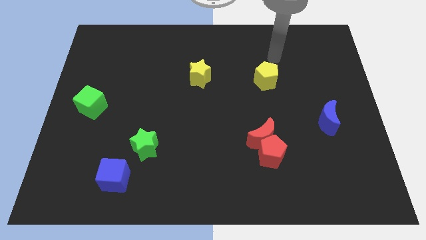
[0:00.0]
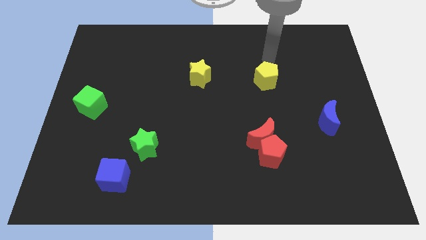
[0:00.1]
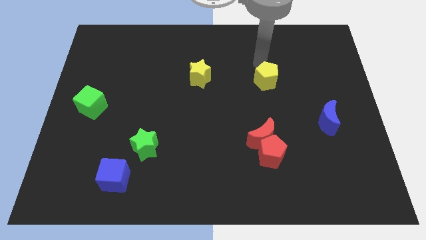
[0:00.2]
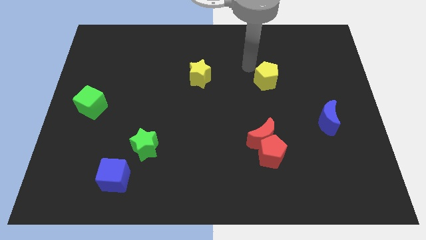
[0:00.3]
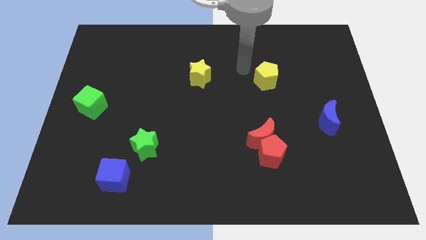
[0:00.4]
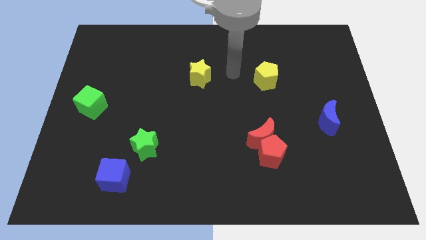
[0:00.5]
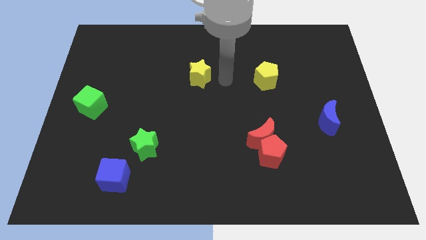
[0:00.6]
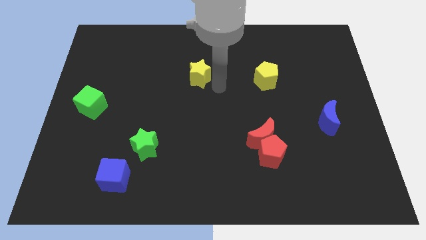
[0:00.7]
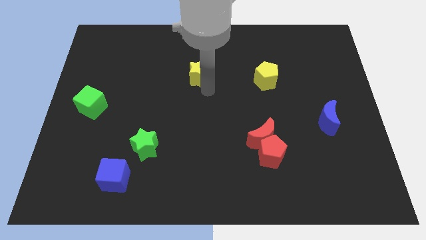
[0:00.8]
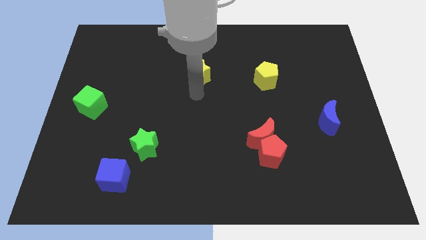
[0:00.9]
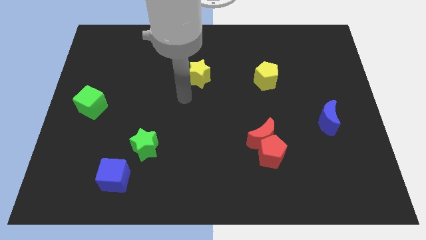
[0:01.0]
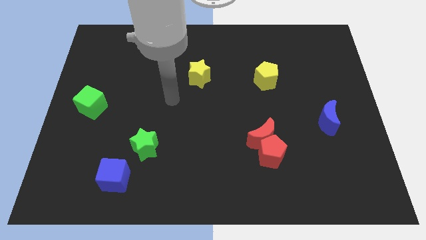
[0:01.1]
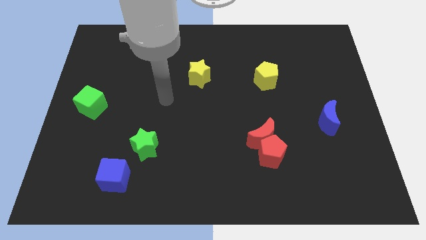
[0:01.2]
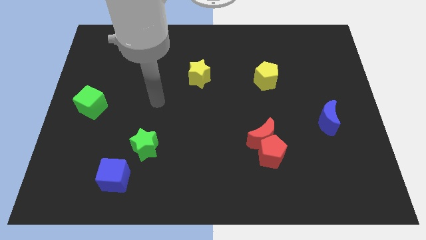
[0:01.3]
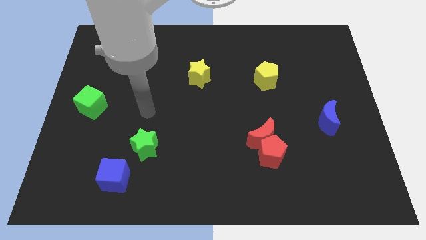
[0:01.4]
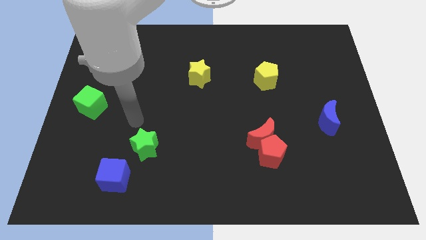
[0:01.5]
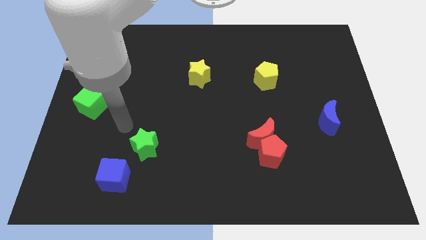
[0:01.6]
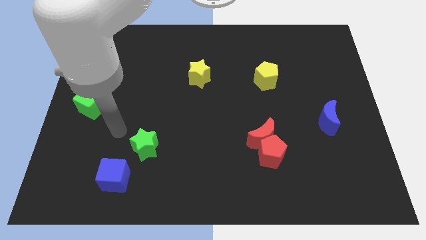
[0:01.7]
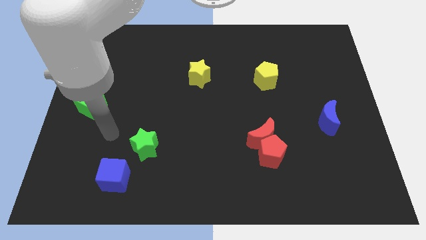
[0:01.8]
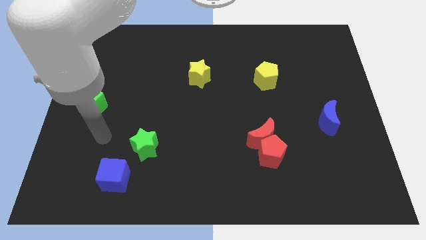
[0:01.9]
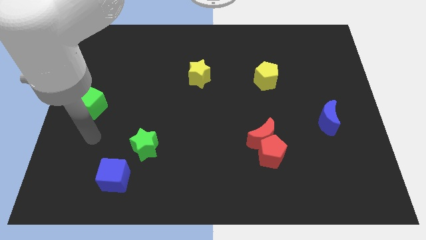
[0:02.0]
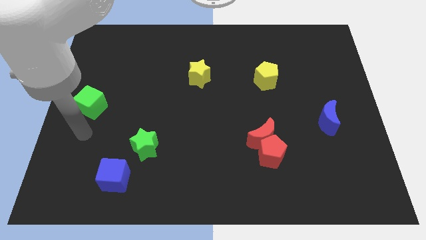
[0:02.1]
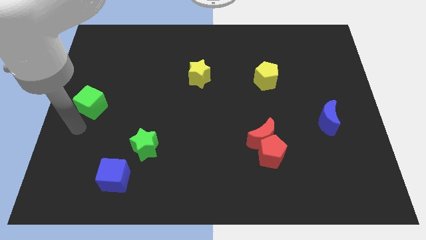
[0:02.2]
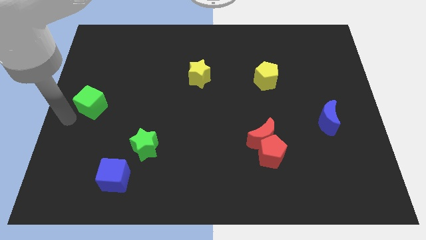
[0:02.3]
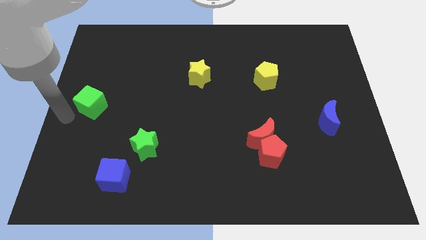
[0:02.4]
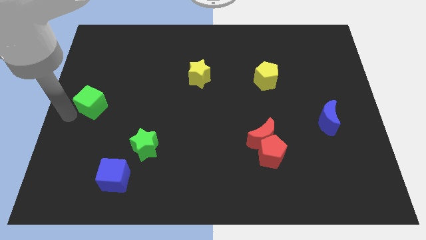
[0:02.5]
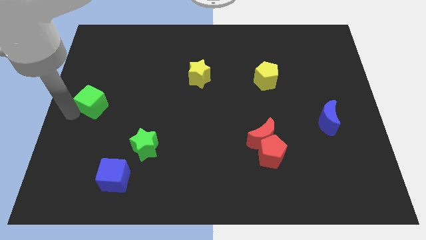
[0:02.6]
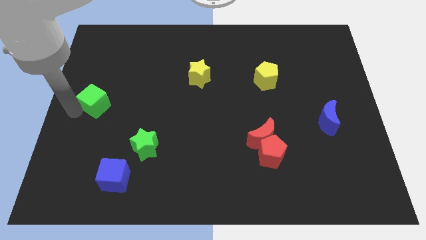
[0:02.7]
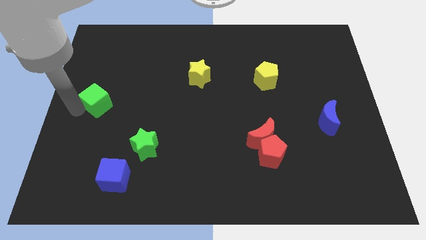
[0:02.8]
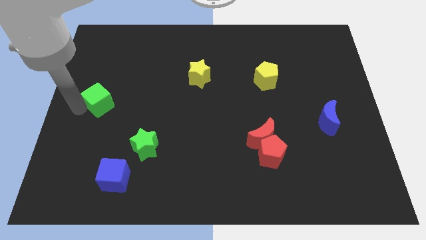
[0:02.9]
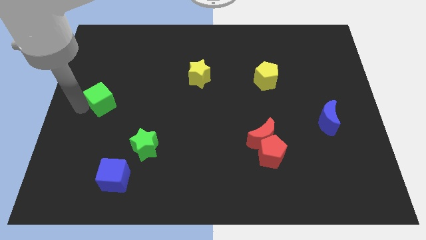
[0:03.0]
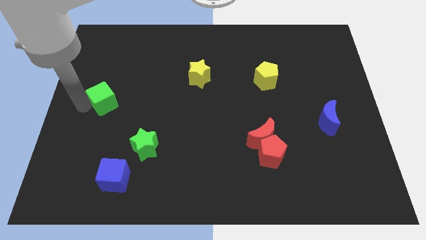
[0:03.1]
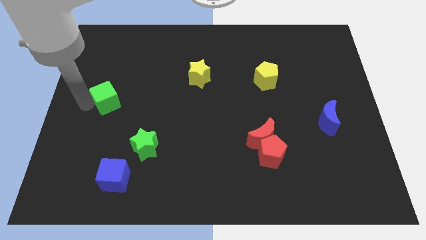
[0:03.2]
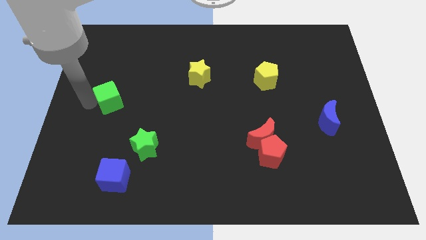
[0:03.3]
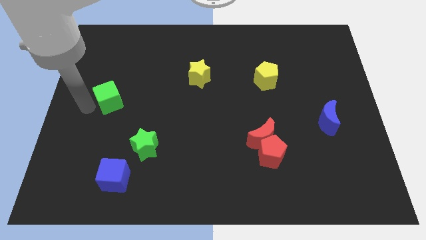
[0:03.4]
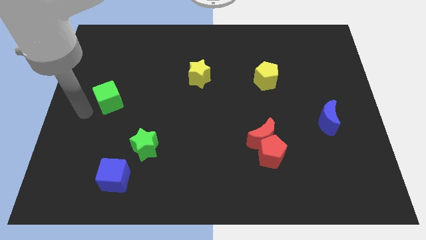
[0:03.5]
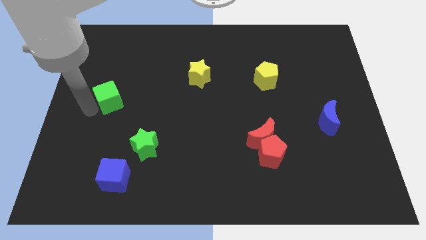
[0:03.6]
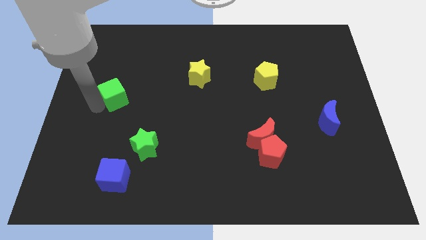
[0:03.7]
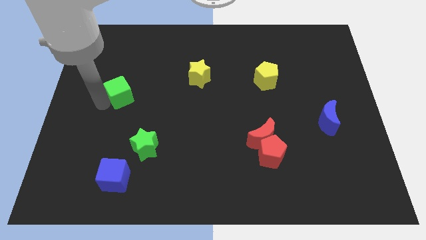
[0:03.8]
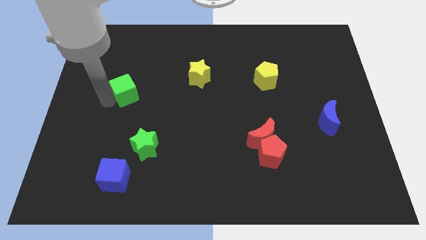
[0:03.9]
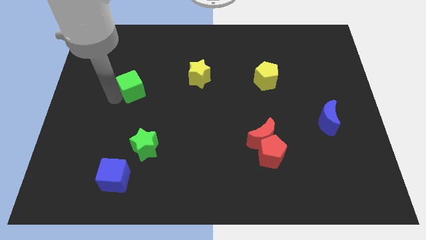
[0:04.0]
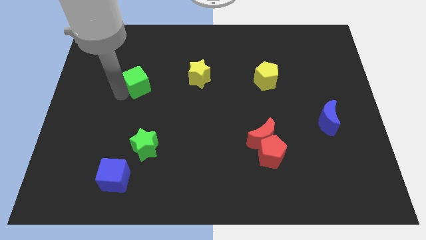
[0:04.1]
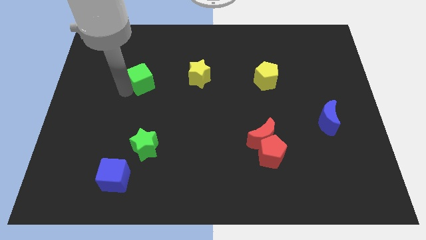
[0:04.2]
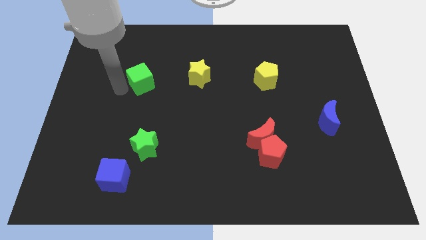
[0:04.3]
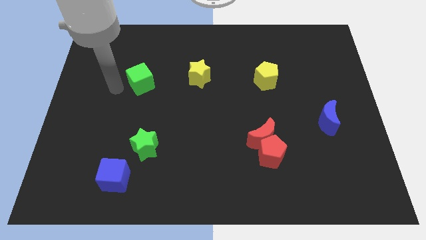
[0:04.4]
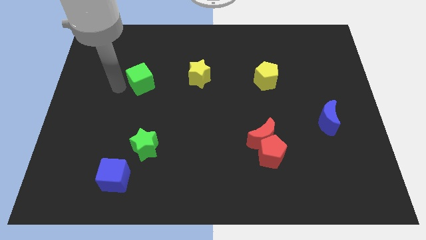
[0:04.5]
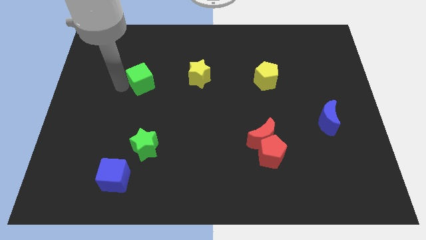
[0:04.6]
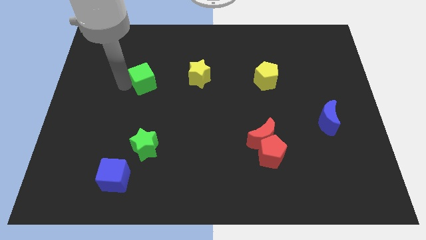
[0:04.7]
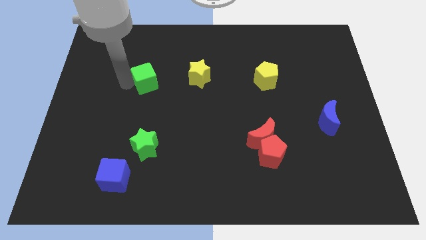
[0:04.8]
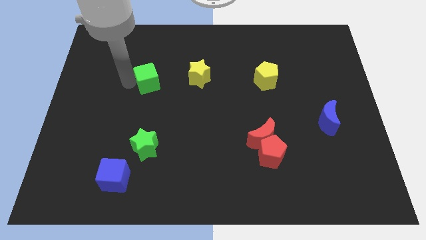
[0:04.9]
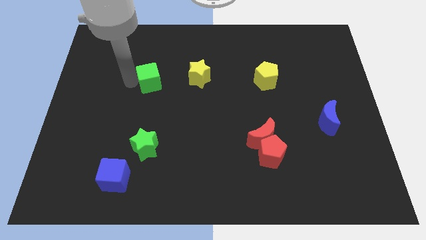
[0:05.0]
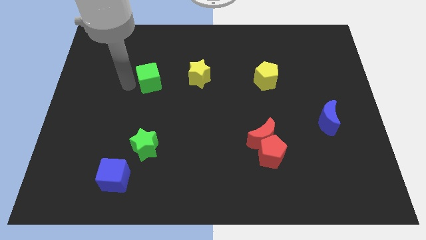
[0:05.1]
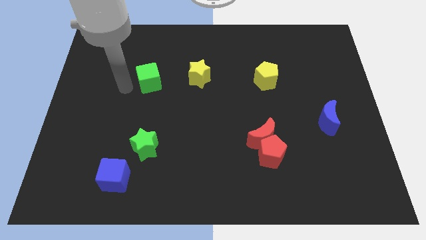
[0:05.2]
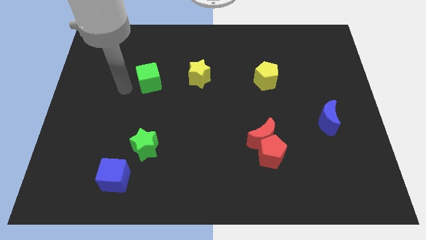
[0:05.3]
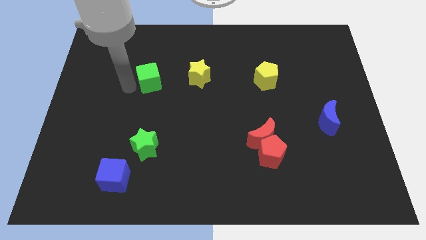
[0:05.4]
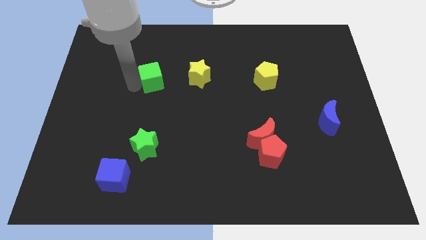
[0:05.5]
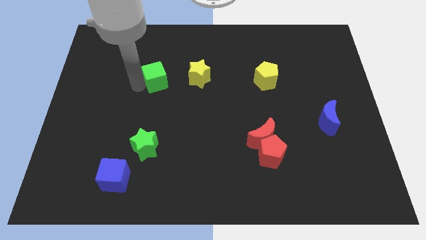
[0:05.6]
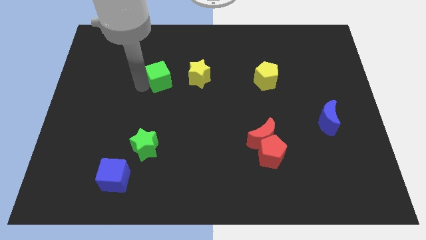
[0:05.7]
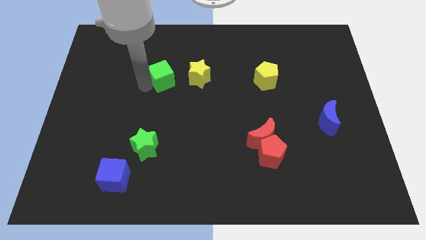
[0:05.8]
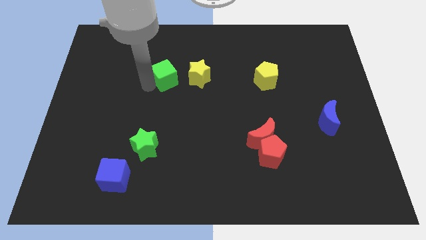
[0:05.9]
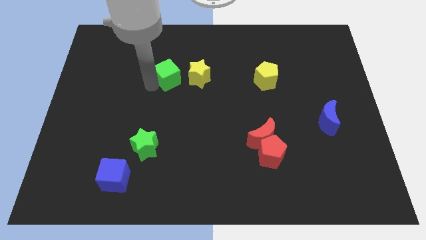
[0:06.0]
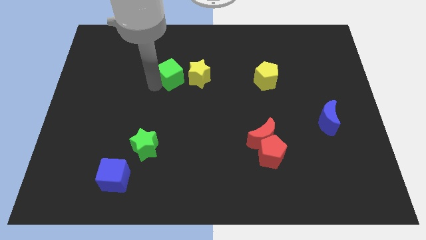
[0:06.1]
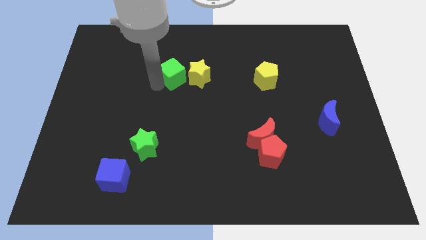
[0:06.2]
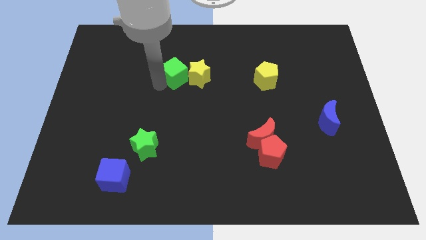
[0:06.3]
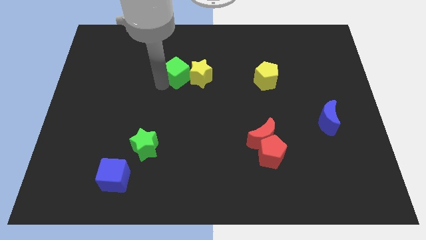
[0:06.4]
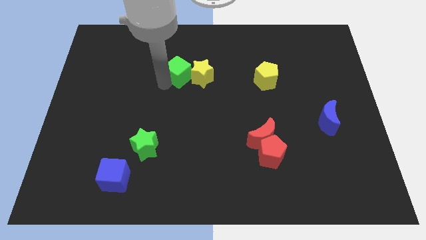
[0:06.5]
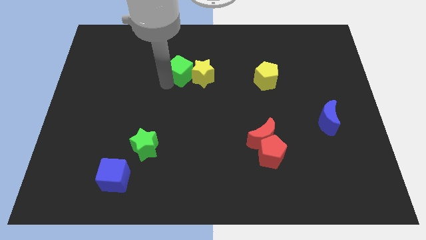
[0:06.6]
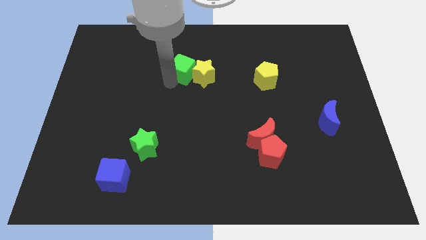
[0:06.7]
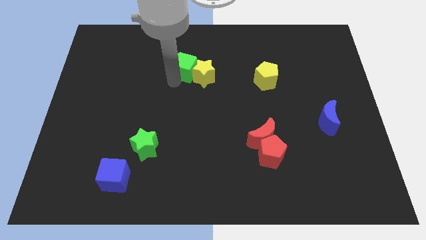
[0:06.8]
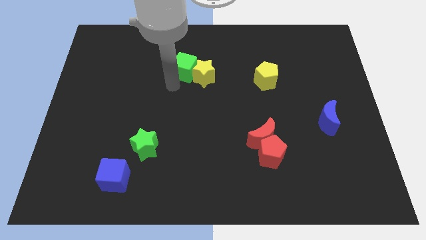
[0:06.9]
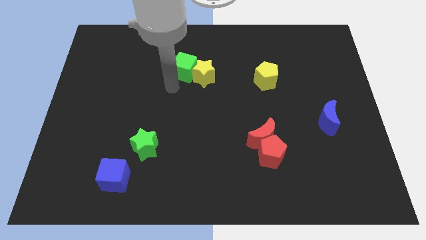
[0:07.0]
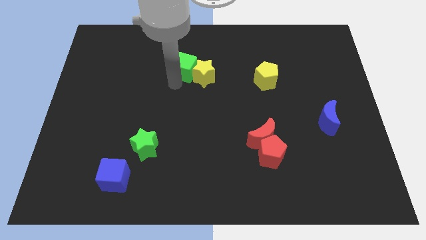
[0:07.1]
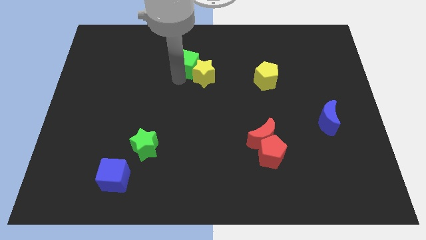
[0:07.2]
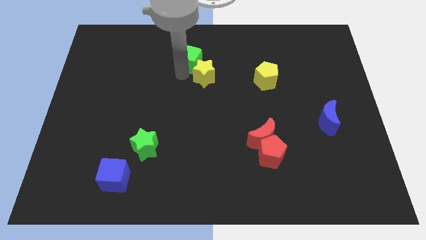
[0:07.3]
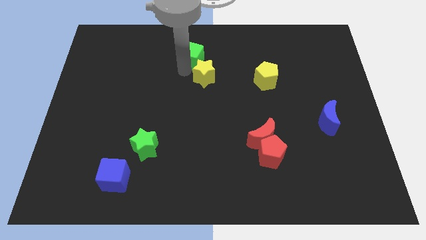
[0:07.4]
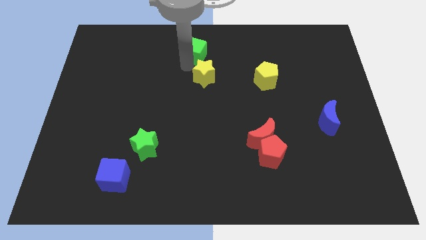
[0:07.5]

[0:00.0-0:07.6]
put the green cube to the towards your base
